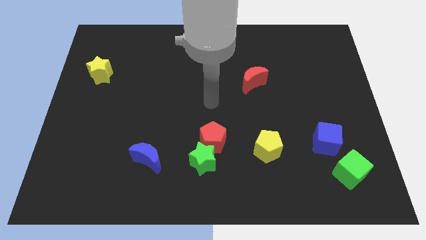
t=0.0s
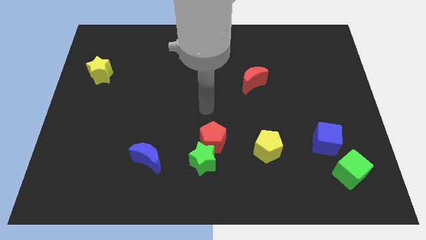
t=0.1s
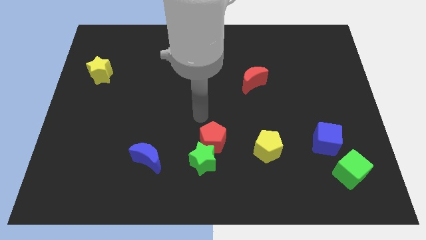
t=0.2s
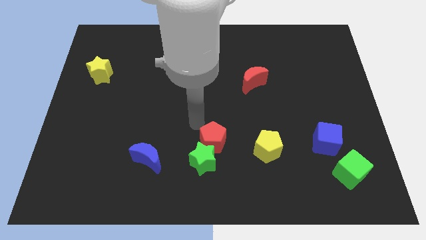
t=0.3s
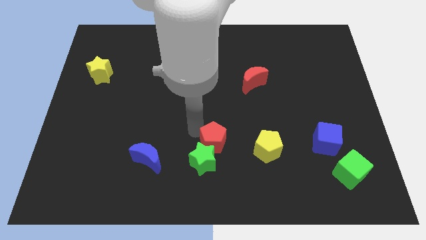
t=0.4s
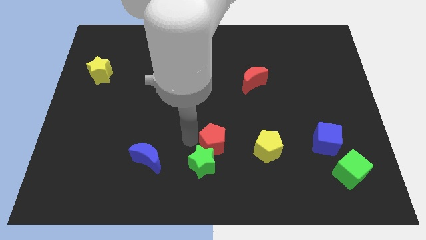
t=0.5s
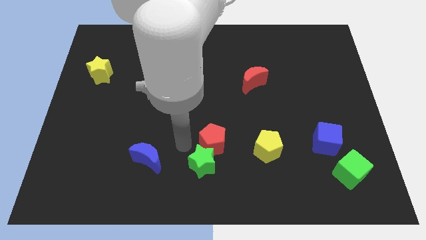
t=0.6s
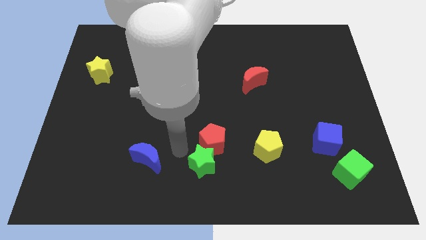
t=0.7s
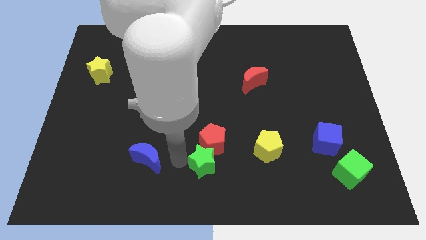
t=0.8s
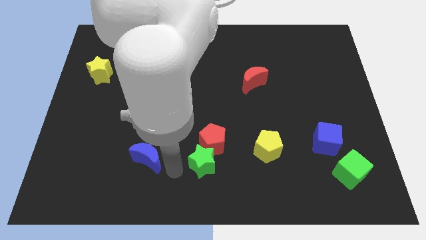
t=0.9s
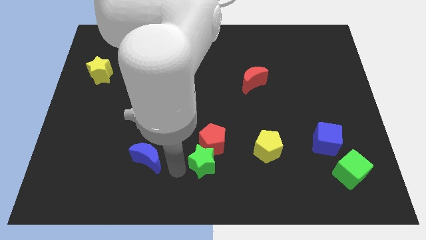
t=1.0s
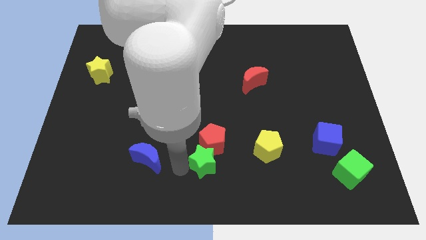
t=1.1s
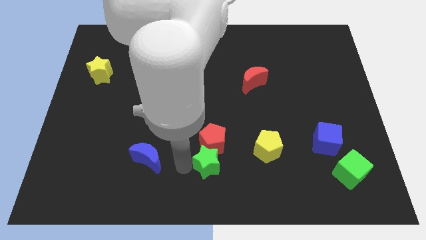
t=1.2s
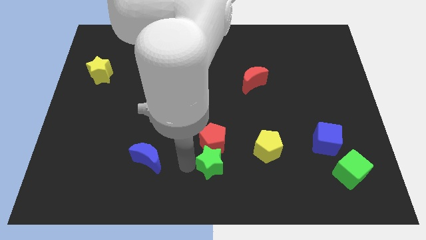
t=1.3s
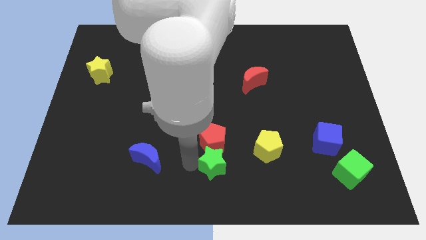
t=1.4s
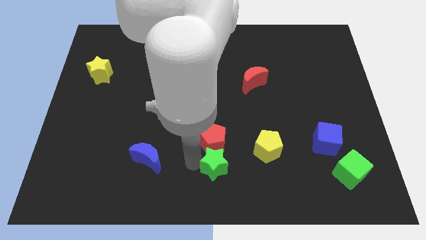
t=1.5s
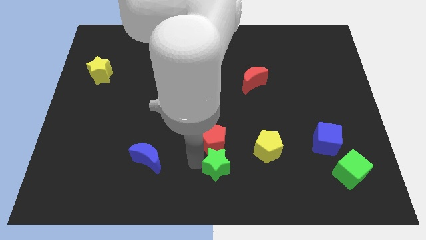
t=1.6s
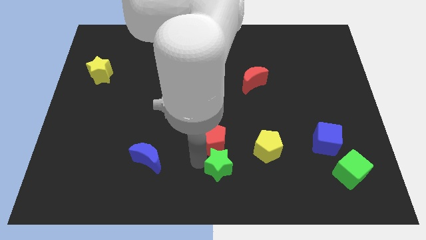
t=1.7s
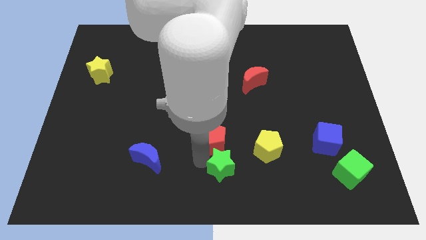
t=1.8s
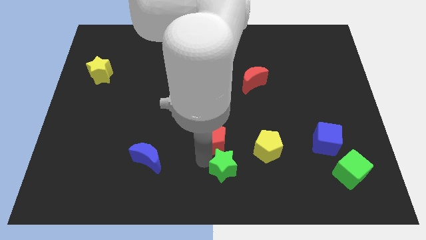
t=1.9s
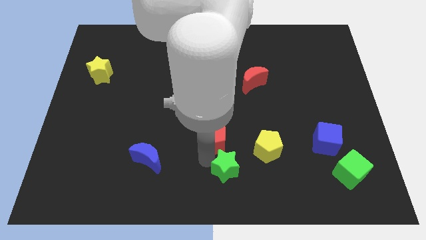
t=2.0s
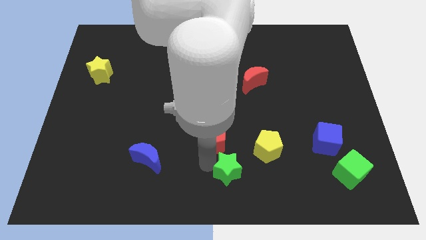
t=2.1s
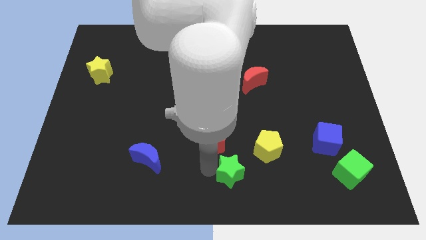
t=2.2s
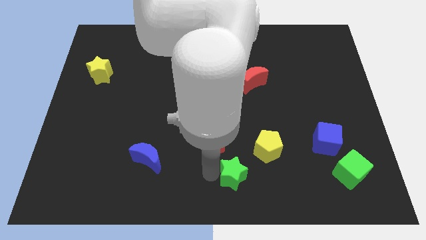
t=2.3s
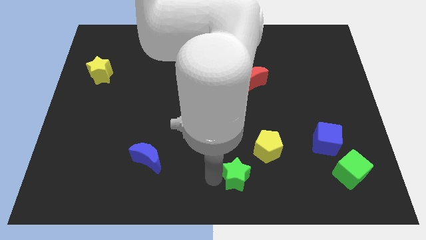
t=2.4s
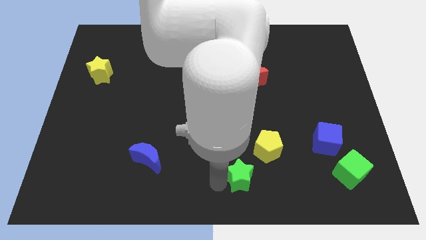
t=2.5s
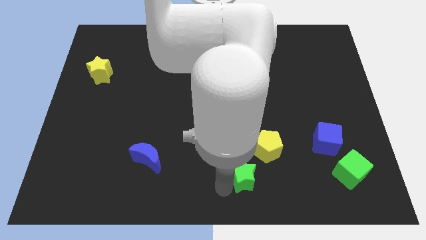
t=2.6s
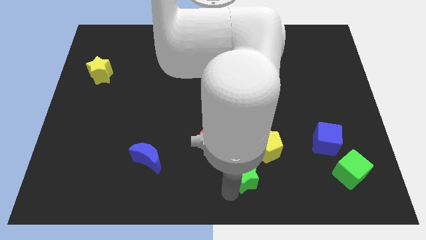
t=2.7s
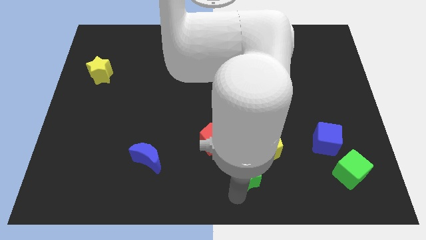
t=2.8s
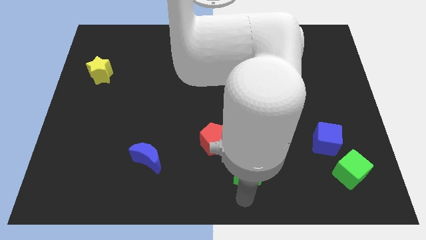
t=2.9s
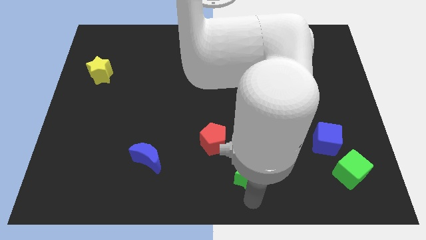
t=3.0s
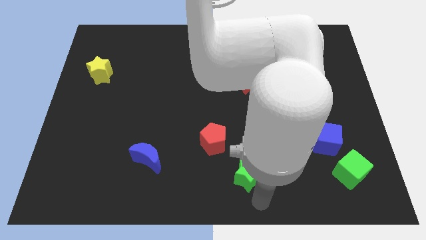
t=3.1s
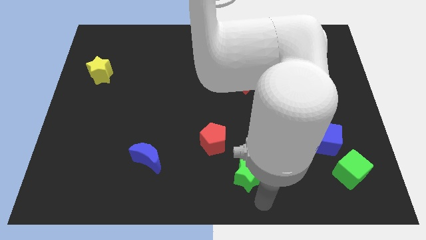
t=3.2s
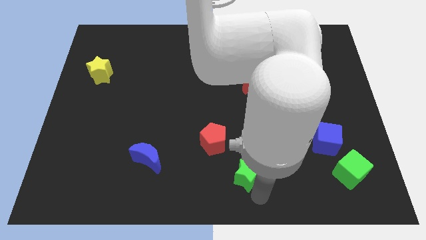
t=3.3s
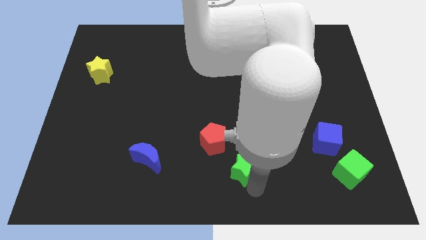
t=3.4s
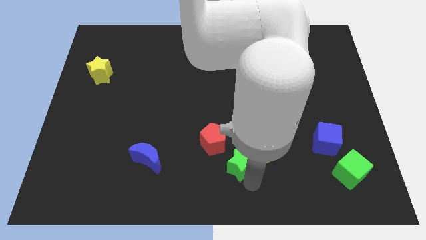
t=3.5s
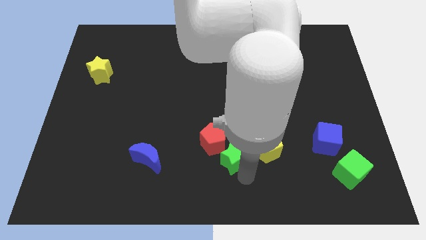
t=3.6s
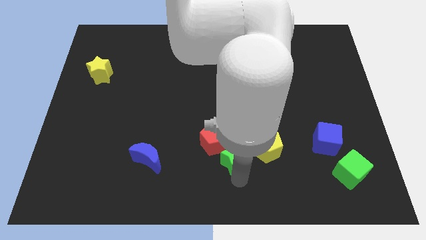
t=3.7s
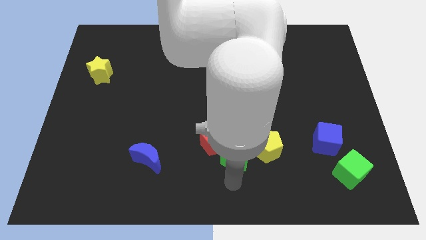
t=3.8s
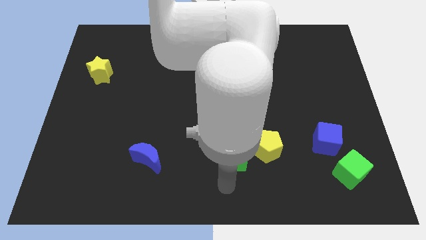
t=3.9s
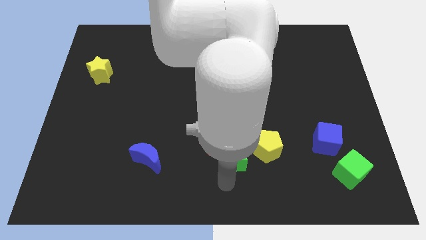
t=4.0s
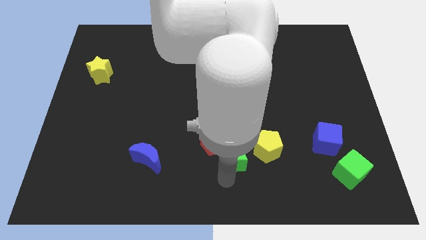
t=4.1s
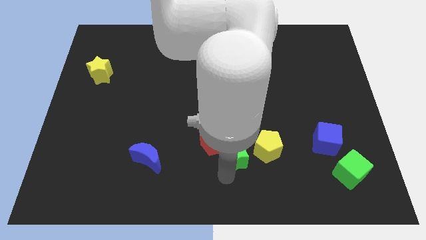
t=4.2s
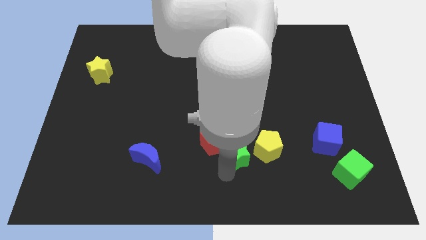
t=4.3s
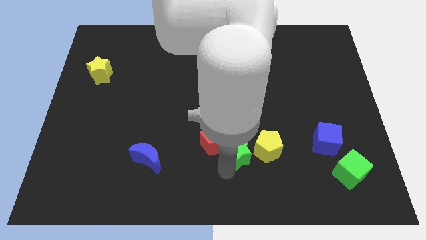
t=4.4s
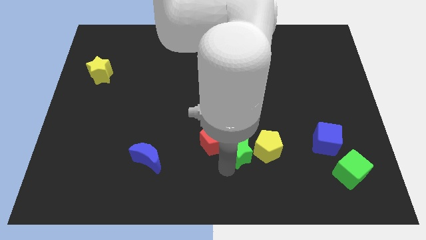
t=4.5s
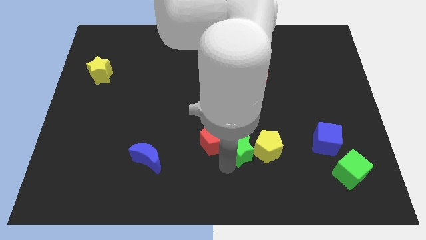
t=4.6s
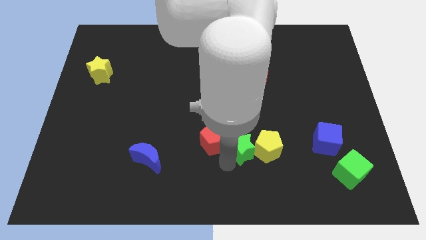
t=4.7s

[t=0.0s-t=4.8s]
push the green star up and to the right a little bit

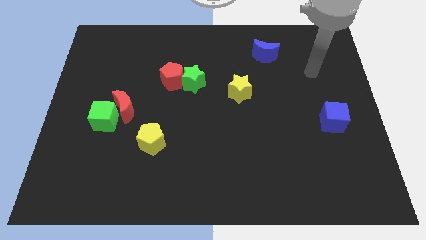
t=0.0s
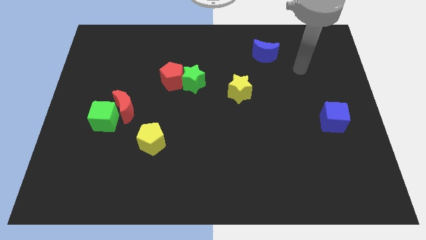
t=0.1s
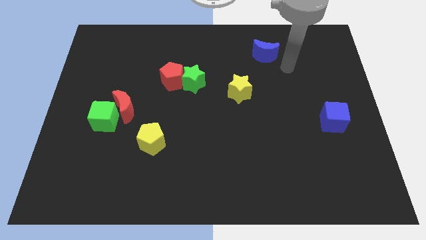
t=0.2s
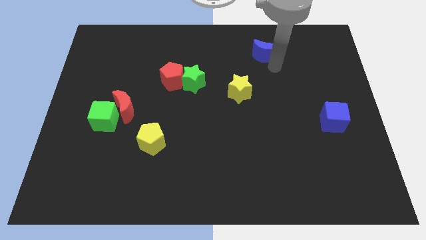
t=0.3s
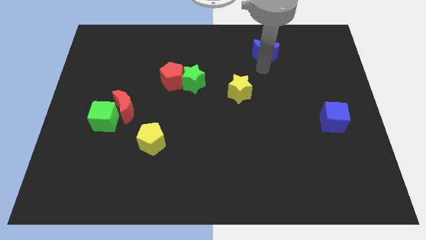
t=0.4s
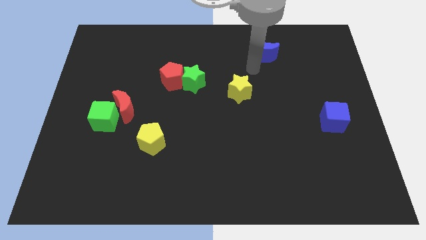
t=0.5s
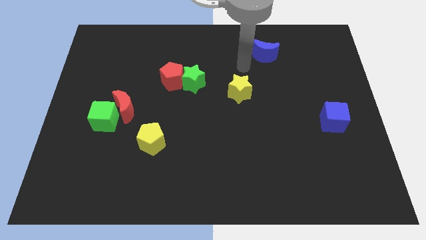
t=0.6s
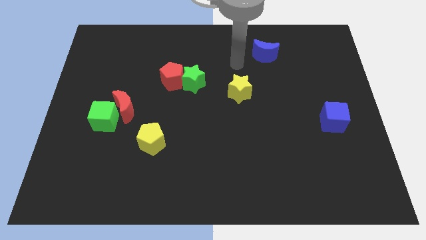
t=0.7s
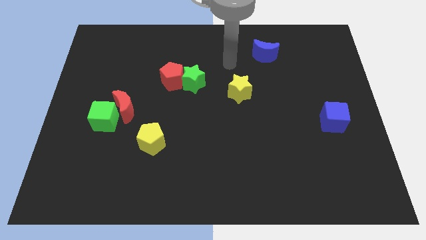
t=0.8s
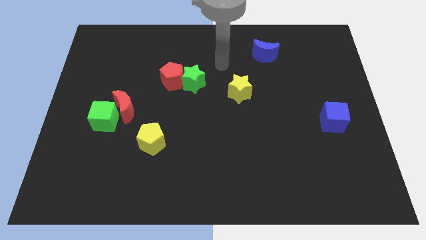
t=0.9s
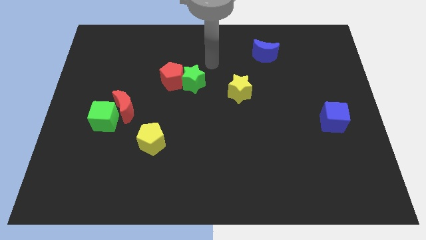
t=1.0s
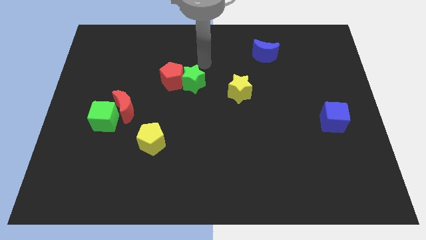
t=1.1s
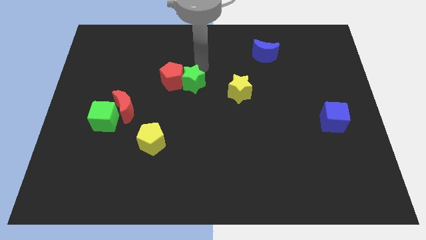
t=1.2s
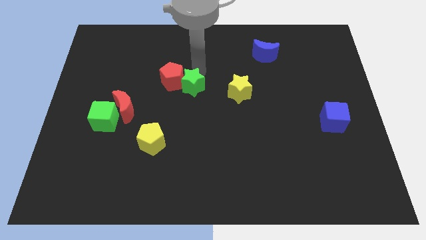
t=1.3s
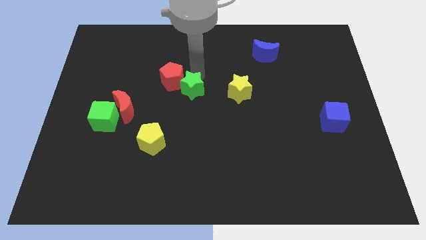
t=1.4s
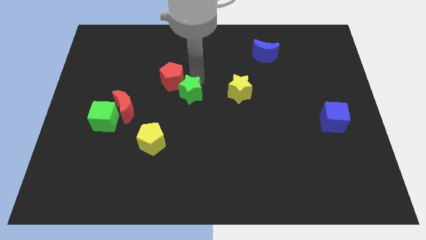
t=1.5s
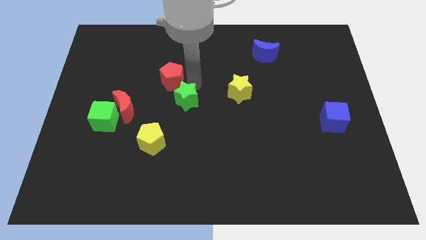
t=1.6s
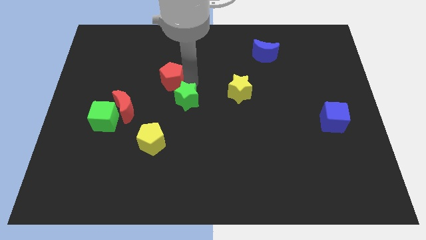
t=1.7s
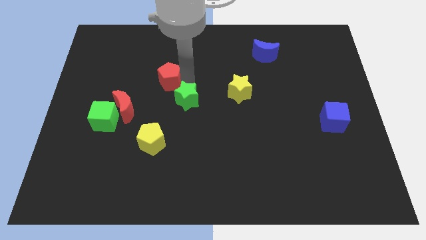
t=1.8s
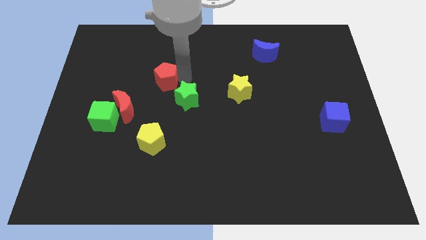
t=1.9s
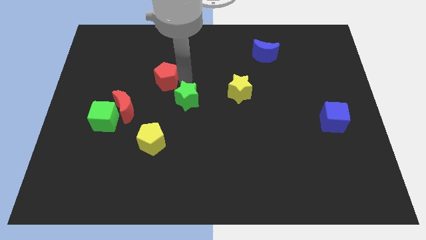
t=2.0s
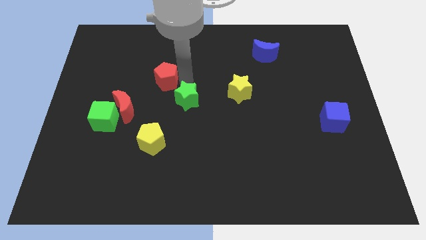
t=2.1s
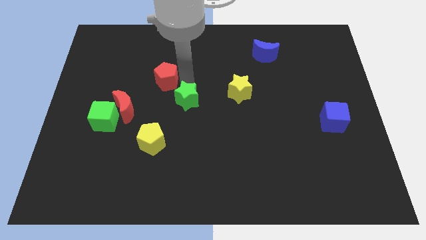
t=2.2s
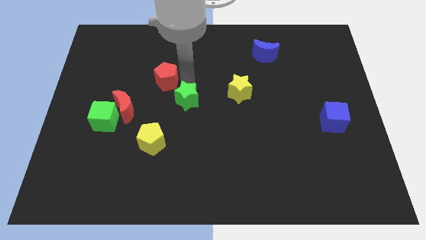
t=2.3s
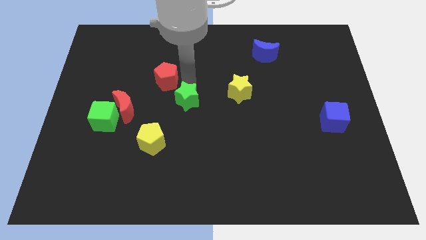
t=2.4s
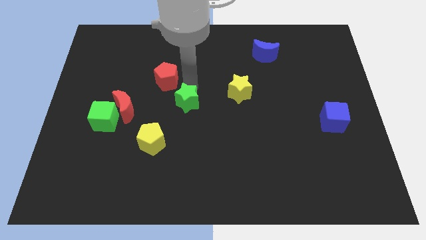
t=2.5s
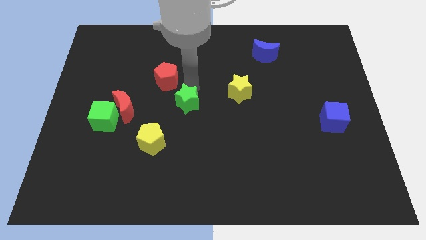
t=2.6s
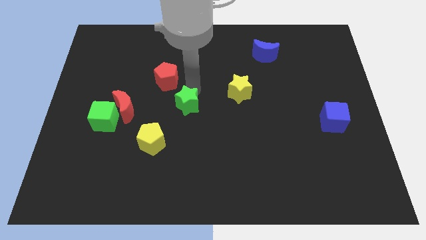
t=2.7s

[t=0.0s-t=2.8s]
slide the green star down slightly

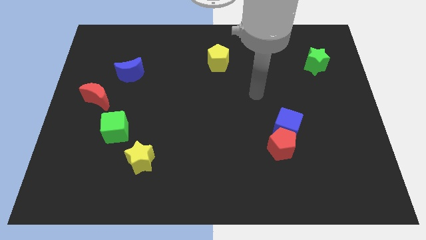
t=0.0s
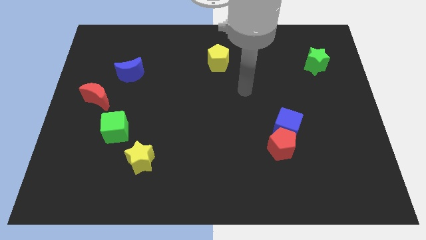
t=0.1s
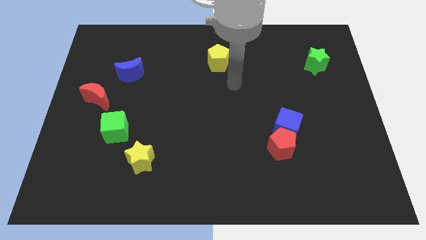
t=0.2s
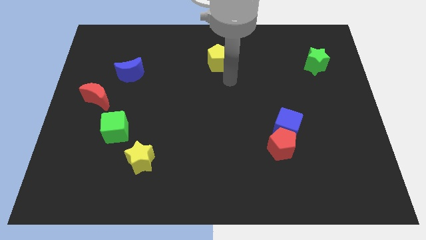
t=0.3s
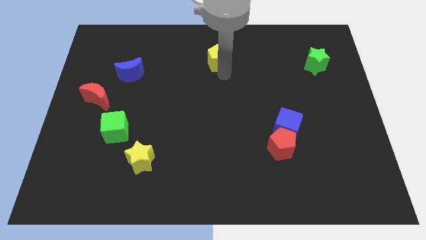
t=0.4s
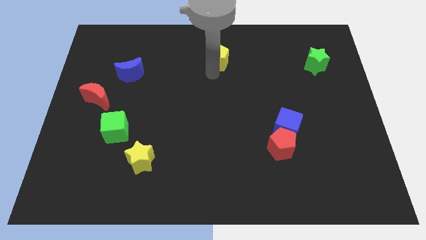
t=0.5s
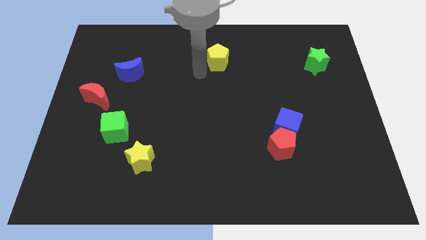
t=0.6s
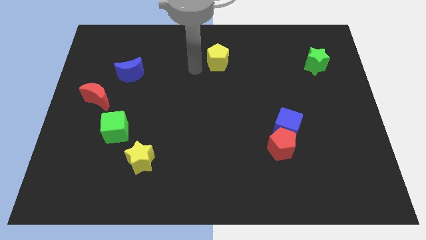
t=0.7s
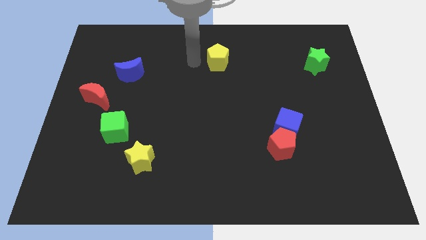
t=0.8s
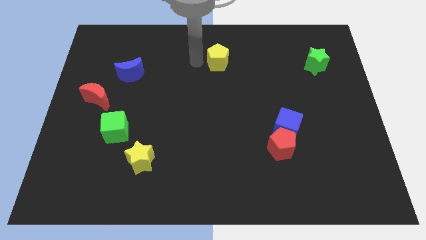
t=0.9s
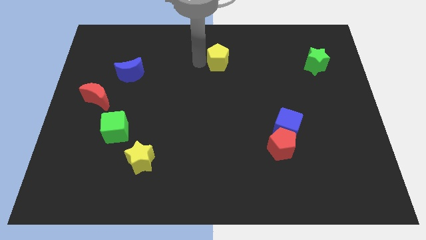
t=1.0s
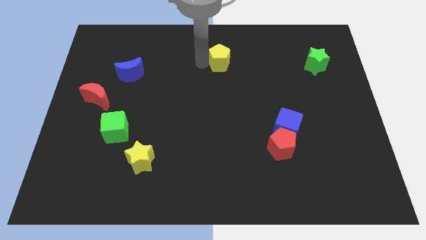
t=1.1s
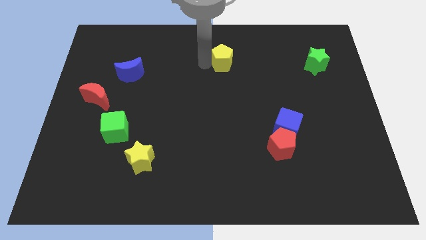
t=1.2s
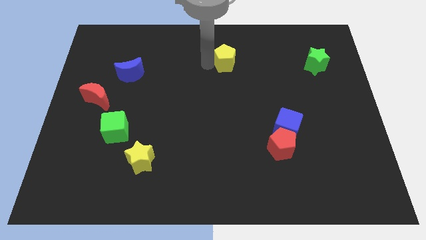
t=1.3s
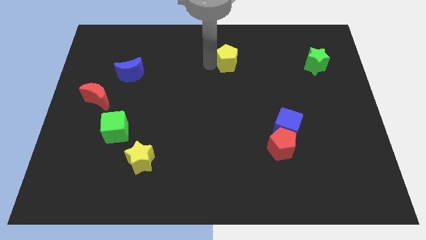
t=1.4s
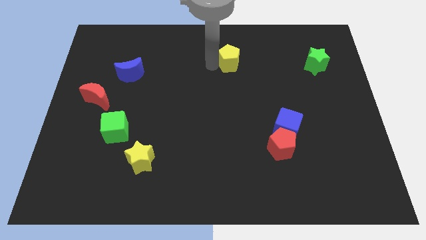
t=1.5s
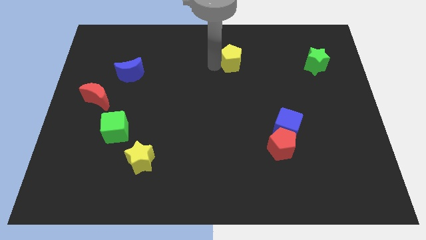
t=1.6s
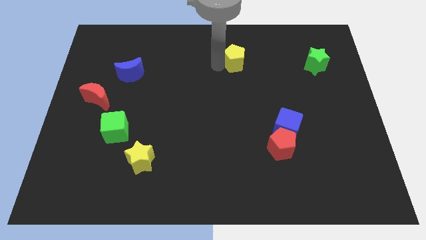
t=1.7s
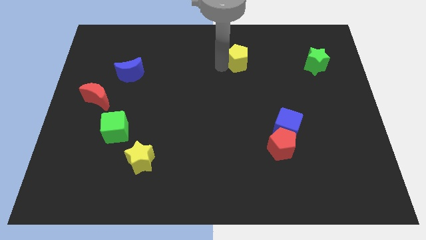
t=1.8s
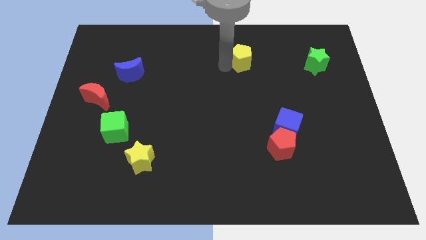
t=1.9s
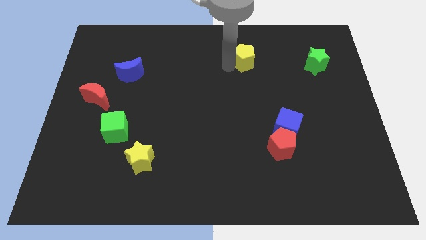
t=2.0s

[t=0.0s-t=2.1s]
push the yellow pentagon right a little
